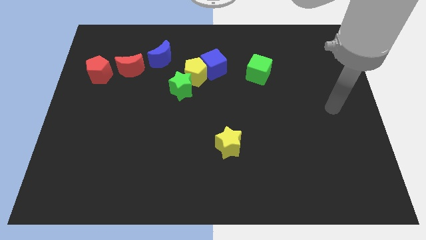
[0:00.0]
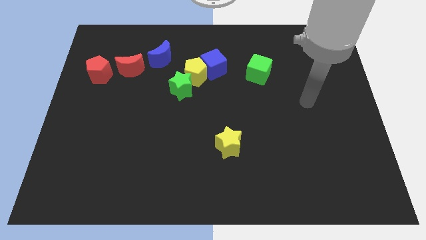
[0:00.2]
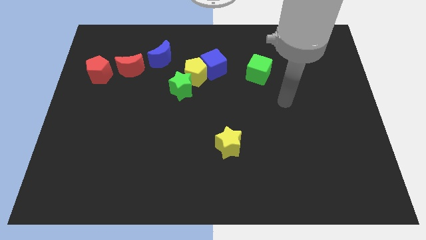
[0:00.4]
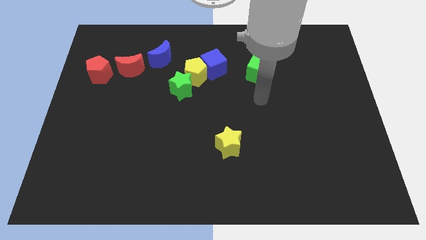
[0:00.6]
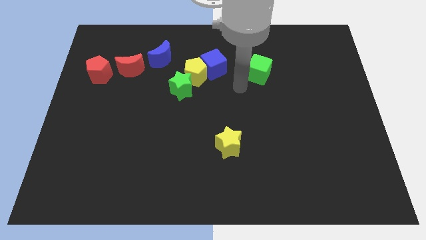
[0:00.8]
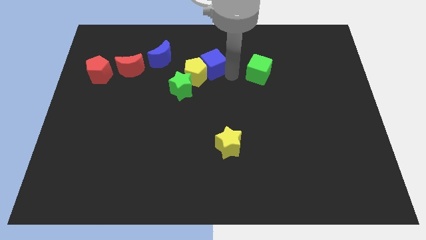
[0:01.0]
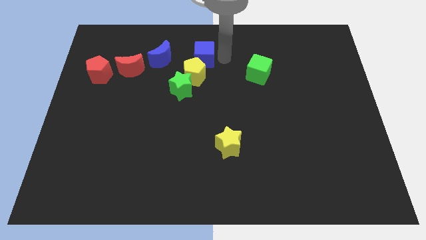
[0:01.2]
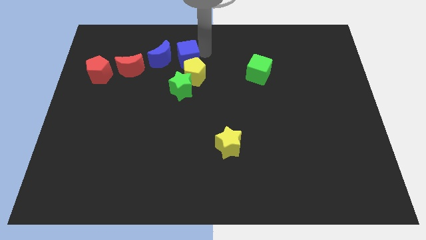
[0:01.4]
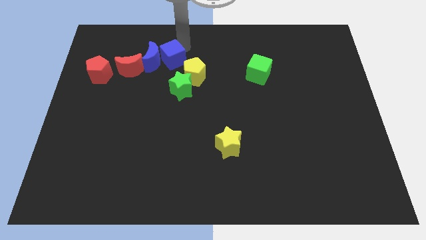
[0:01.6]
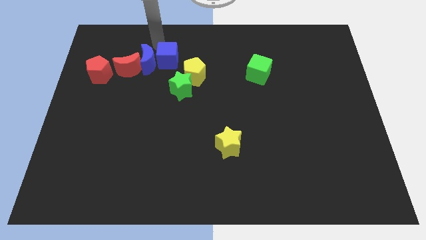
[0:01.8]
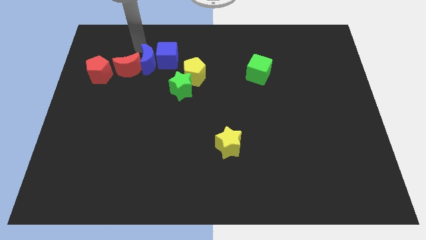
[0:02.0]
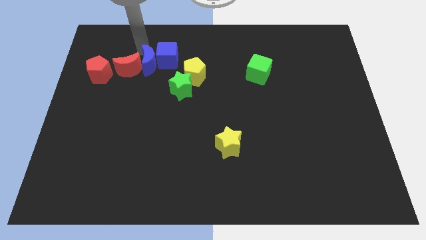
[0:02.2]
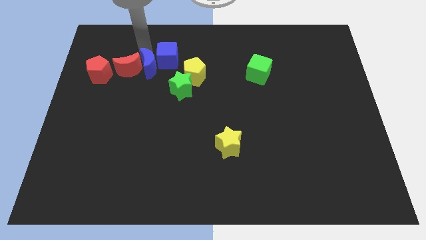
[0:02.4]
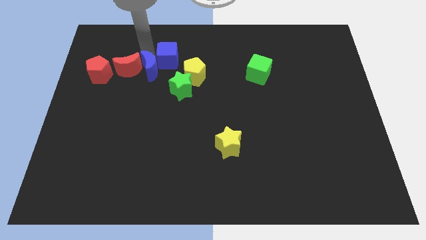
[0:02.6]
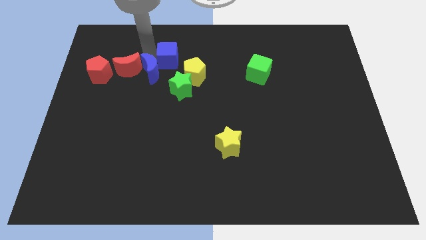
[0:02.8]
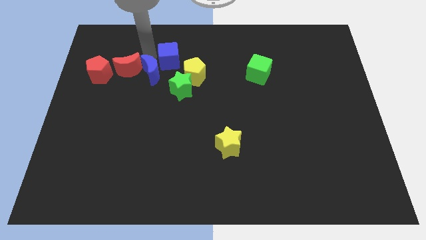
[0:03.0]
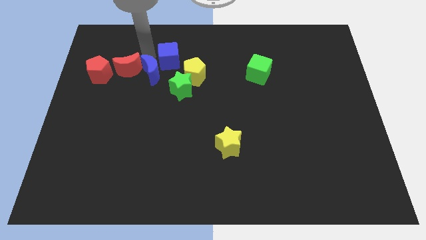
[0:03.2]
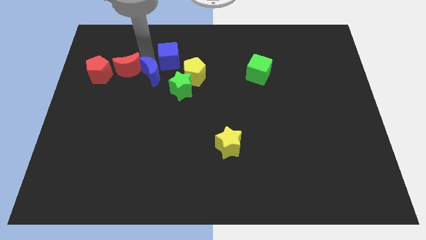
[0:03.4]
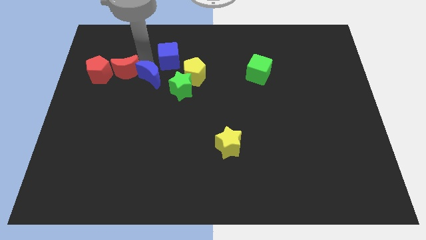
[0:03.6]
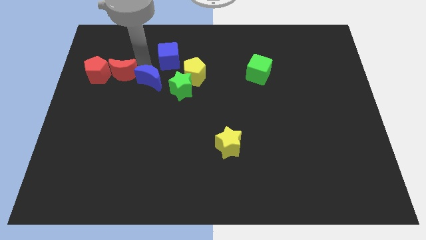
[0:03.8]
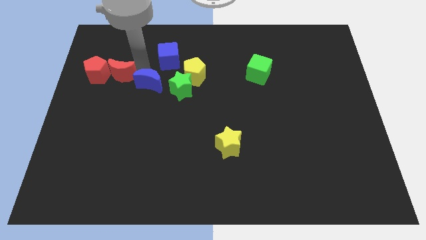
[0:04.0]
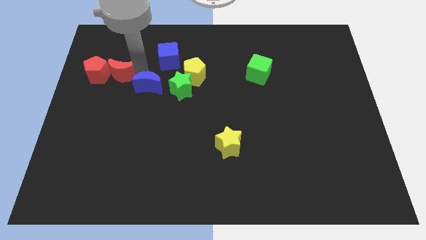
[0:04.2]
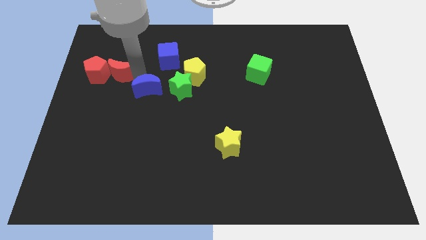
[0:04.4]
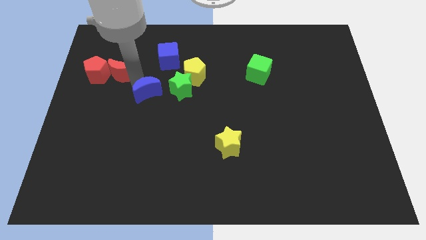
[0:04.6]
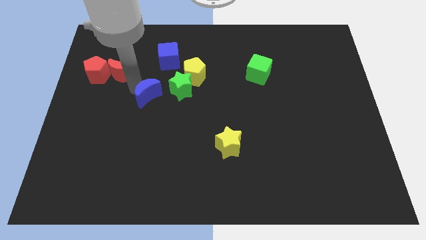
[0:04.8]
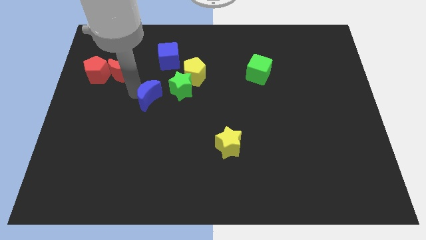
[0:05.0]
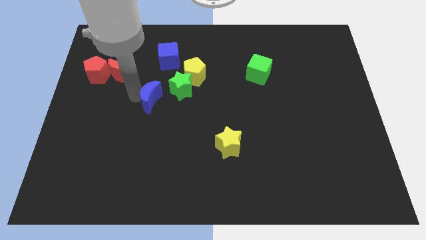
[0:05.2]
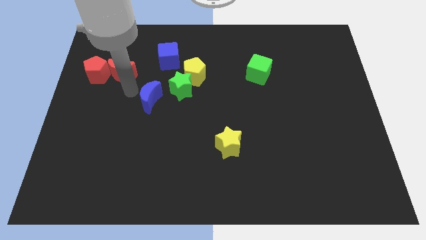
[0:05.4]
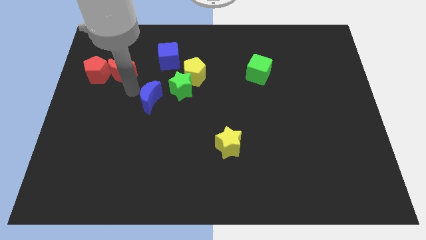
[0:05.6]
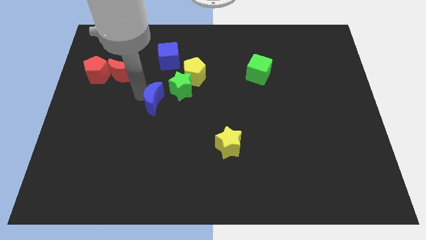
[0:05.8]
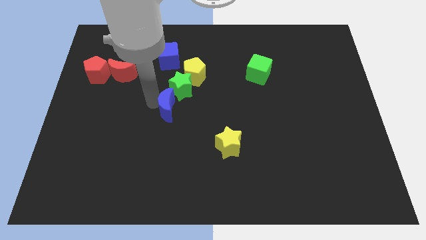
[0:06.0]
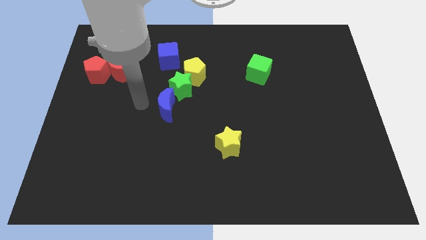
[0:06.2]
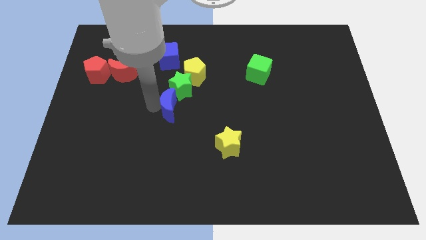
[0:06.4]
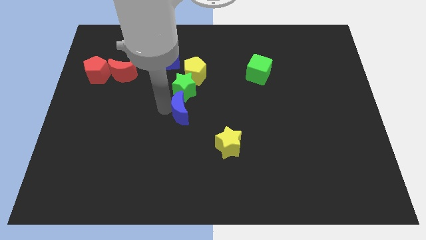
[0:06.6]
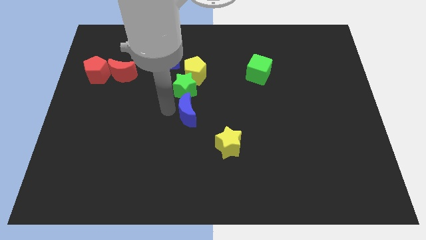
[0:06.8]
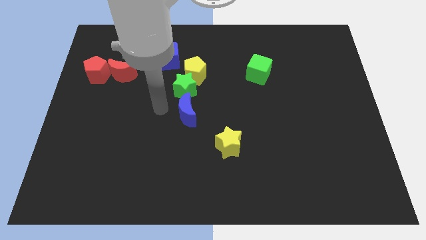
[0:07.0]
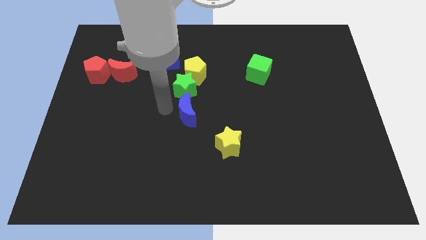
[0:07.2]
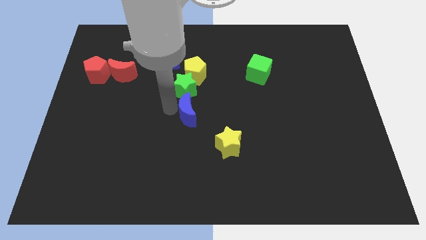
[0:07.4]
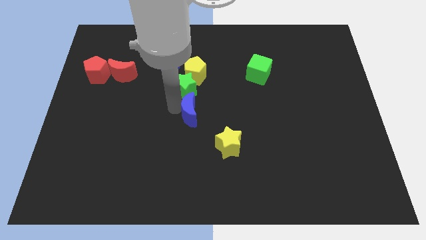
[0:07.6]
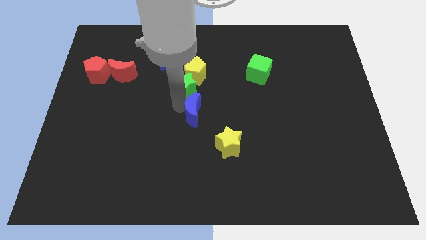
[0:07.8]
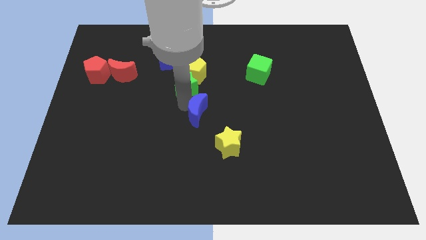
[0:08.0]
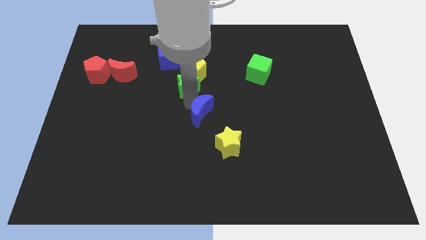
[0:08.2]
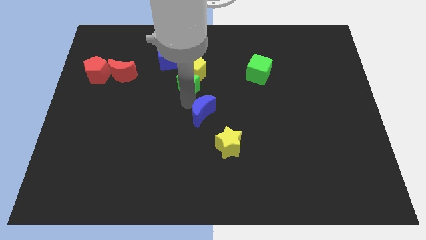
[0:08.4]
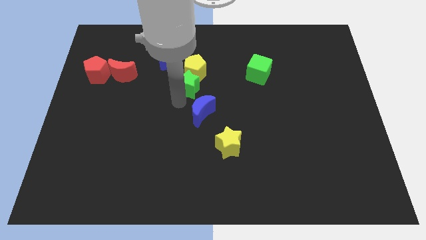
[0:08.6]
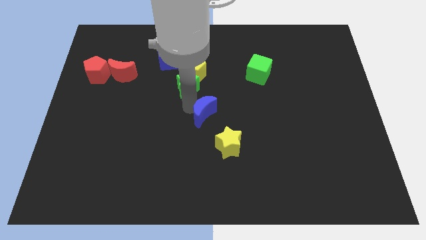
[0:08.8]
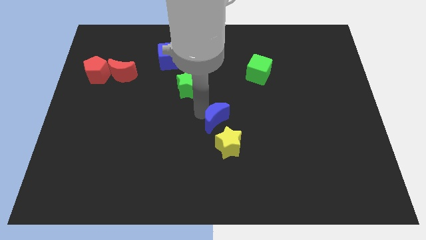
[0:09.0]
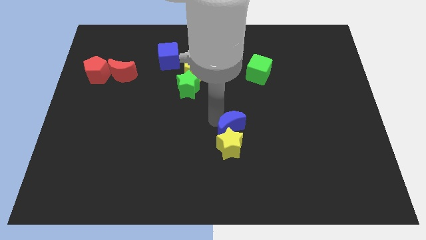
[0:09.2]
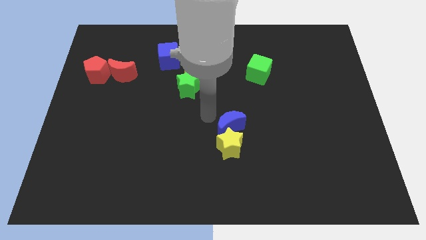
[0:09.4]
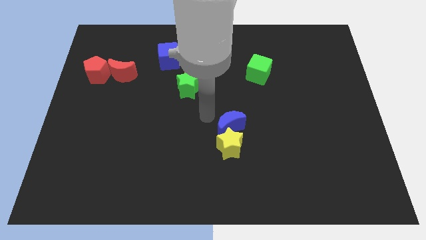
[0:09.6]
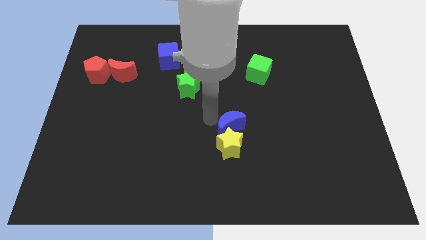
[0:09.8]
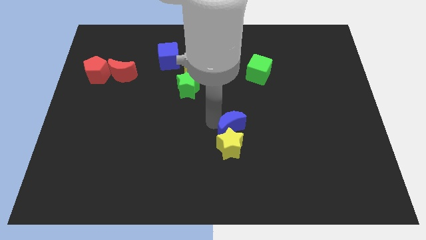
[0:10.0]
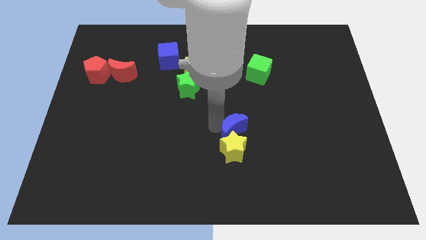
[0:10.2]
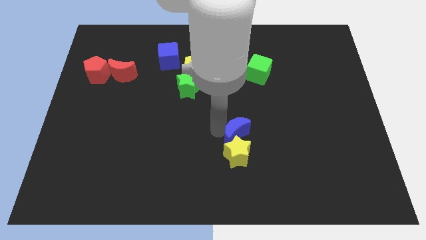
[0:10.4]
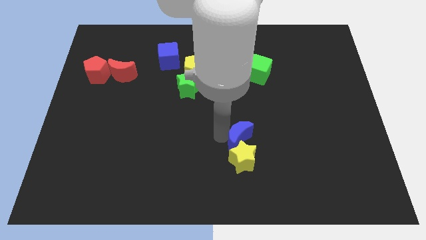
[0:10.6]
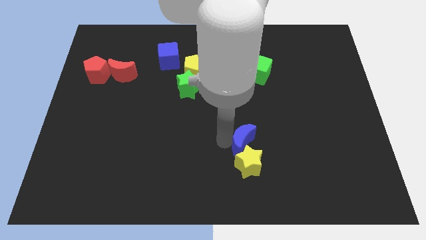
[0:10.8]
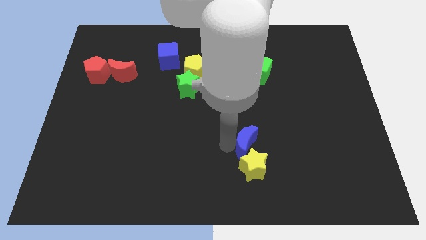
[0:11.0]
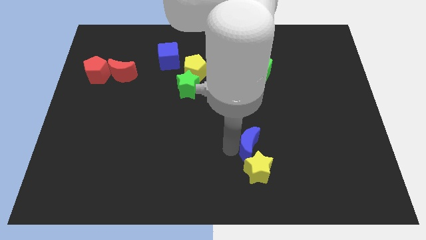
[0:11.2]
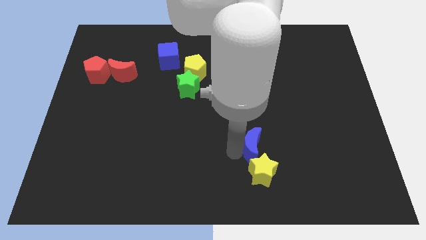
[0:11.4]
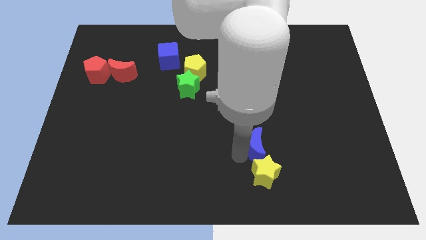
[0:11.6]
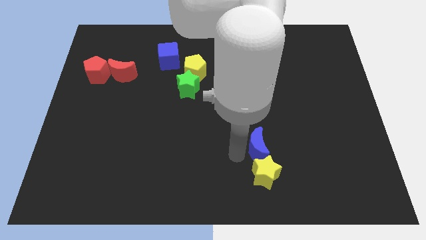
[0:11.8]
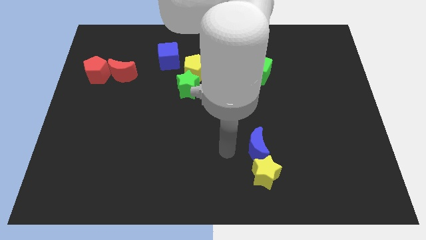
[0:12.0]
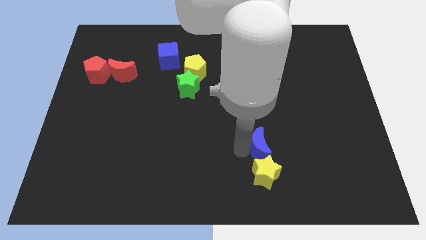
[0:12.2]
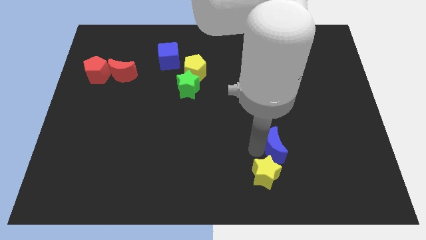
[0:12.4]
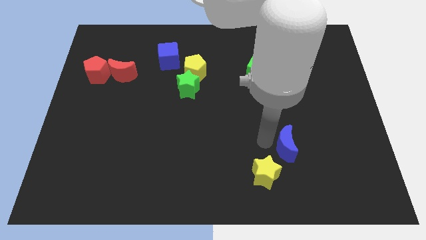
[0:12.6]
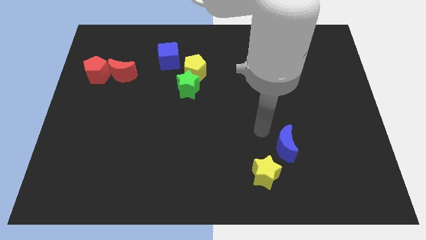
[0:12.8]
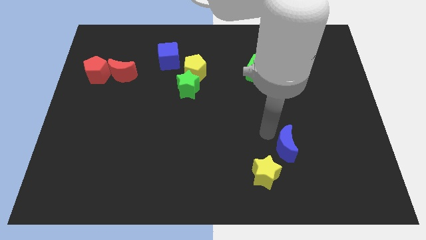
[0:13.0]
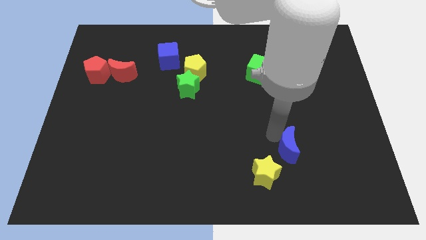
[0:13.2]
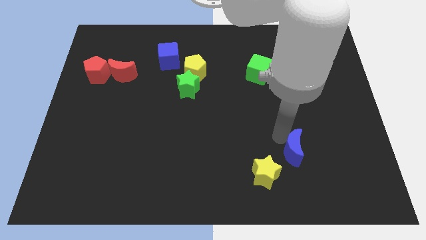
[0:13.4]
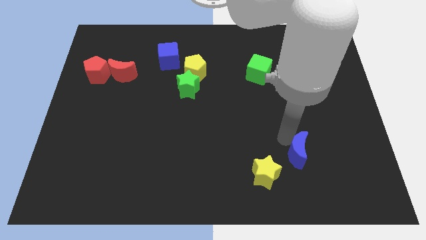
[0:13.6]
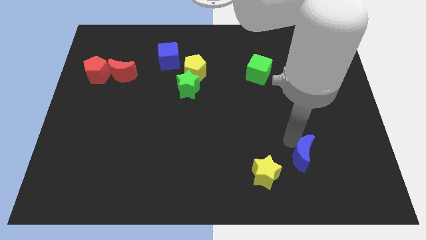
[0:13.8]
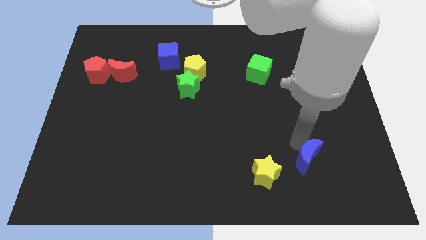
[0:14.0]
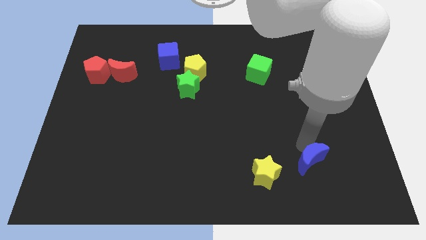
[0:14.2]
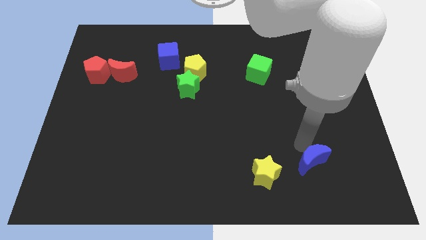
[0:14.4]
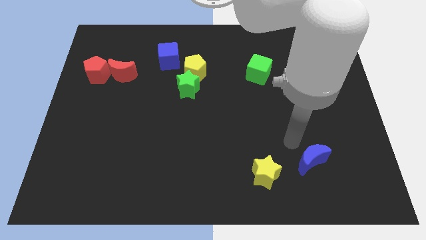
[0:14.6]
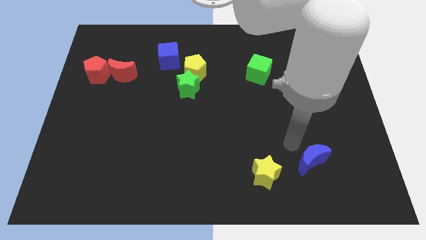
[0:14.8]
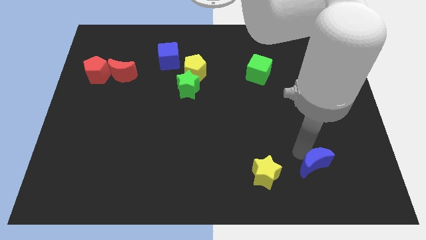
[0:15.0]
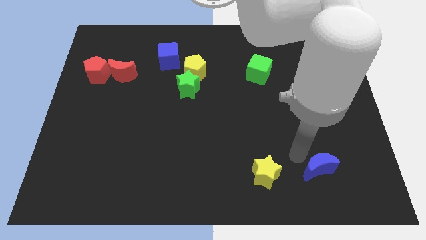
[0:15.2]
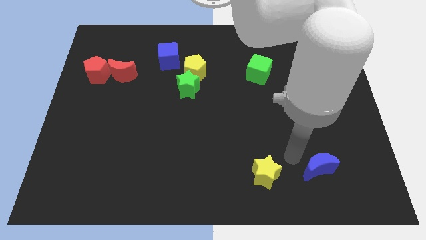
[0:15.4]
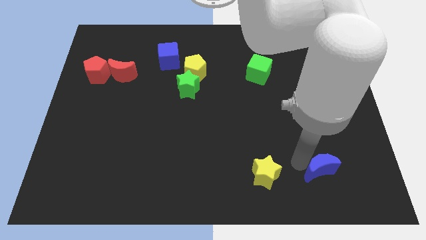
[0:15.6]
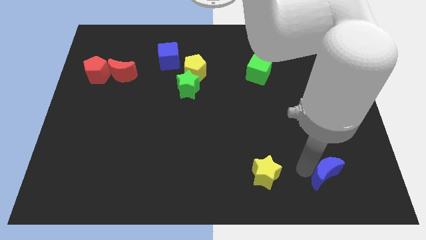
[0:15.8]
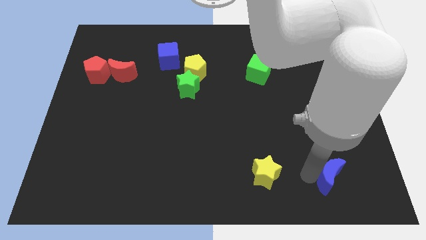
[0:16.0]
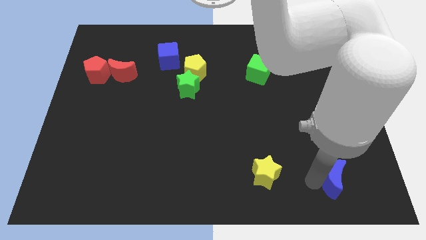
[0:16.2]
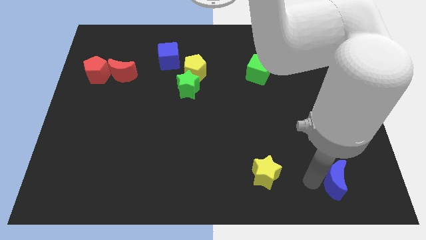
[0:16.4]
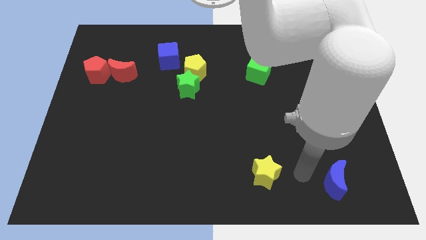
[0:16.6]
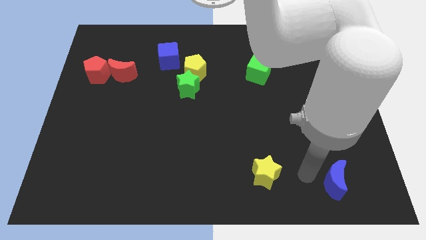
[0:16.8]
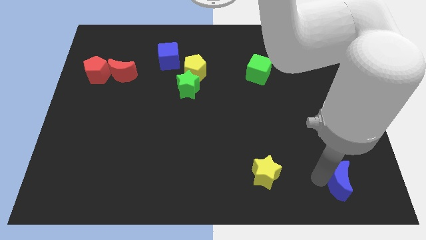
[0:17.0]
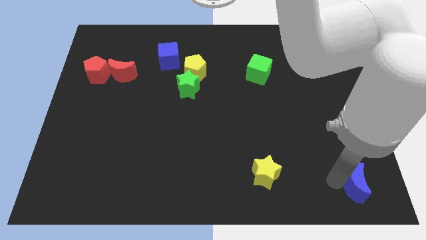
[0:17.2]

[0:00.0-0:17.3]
slide the blue moon to the bottom right of the board
